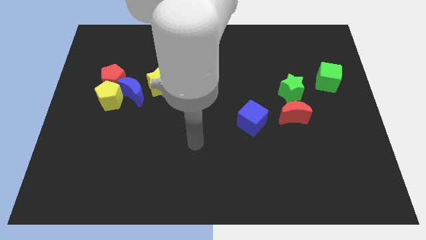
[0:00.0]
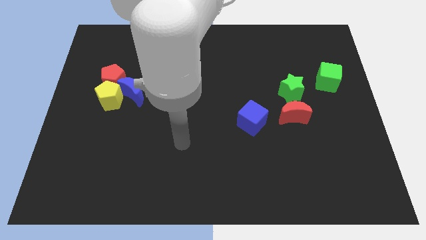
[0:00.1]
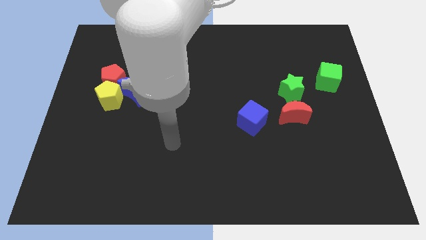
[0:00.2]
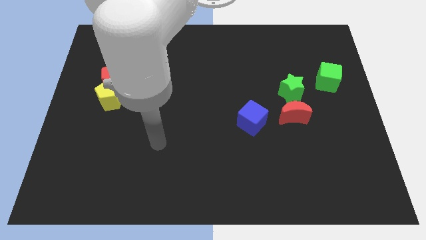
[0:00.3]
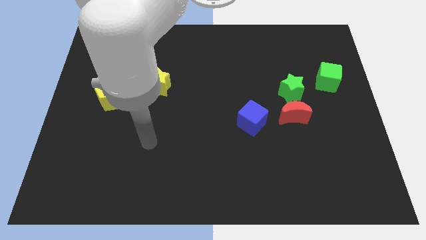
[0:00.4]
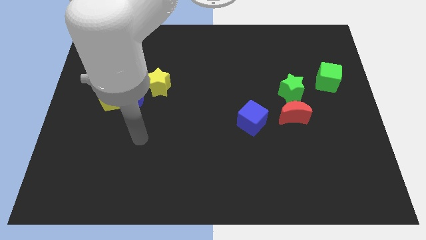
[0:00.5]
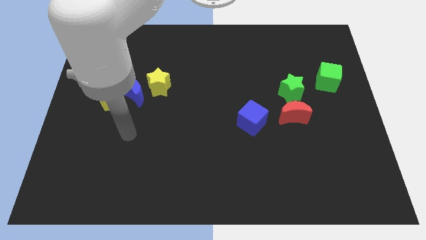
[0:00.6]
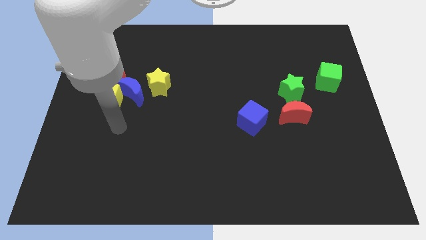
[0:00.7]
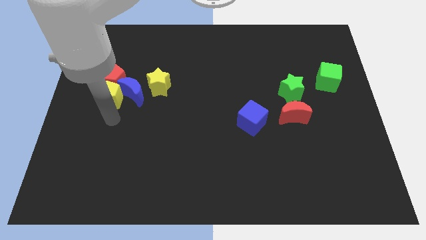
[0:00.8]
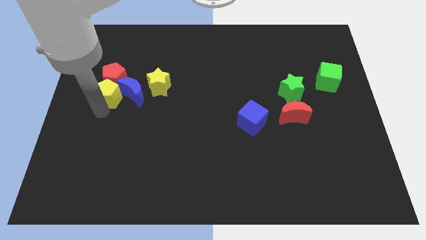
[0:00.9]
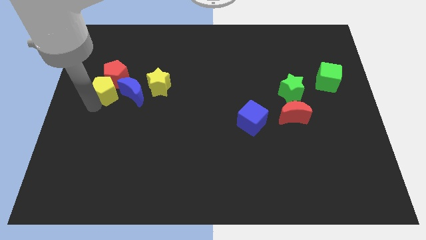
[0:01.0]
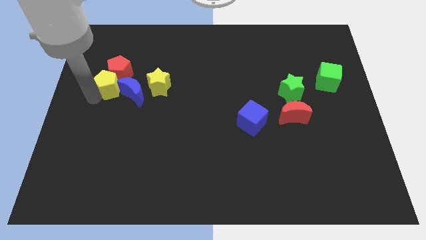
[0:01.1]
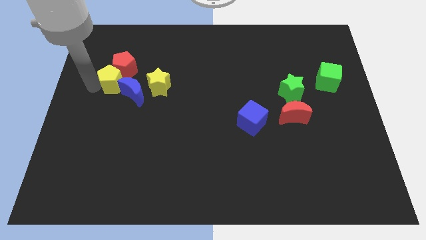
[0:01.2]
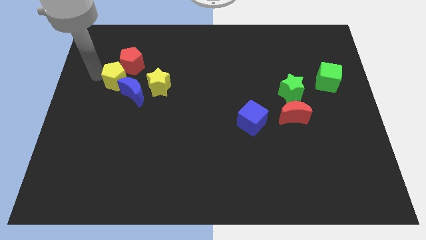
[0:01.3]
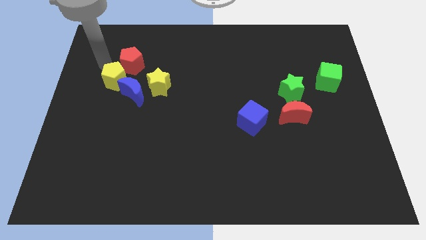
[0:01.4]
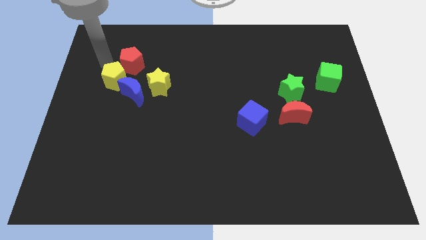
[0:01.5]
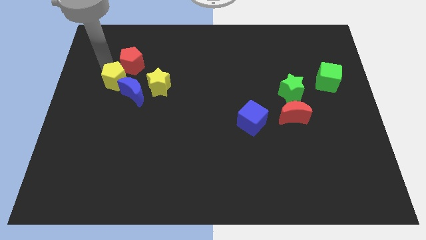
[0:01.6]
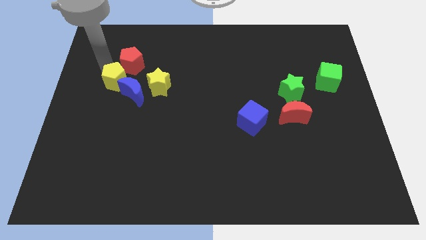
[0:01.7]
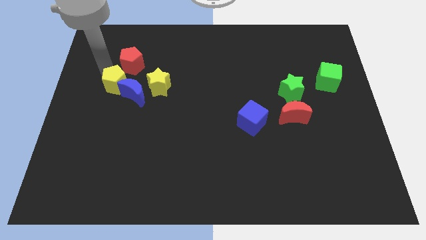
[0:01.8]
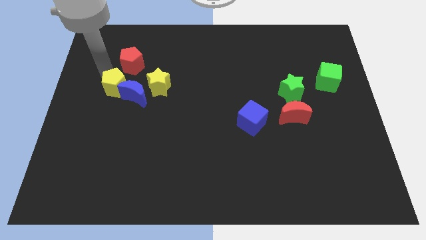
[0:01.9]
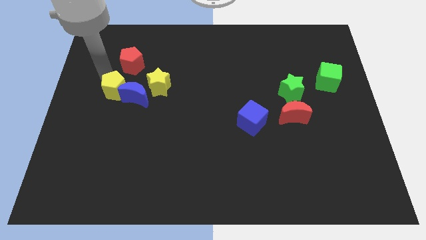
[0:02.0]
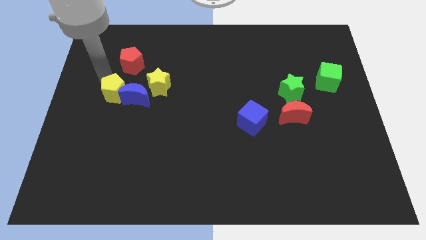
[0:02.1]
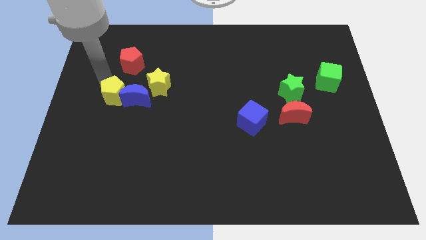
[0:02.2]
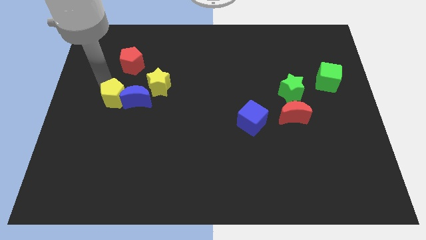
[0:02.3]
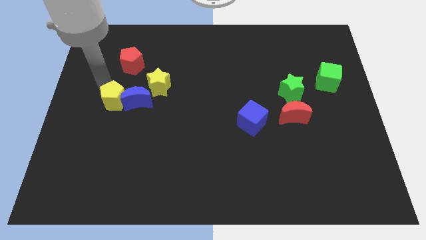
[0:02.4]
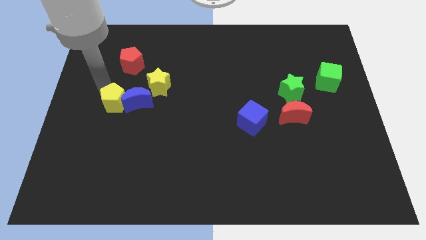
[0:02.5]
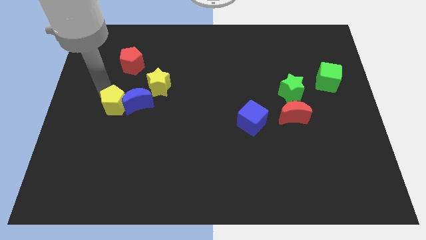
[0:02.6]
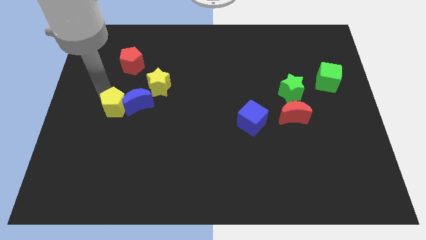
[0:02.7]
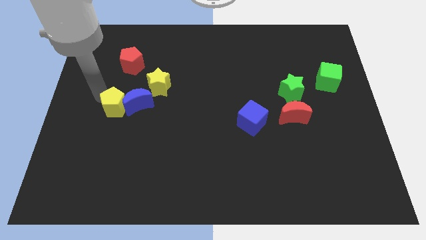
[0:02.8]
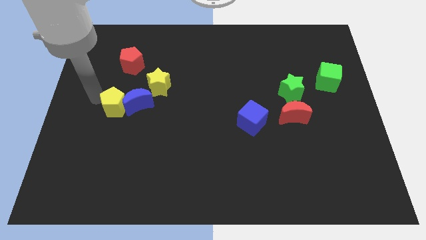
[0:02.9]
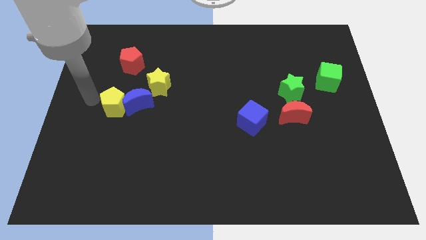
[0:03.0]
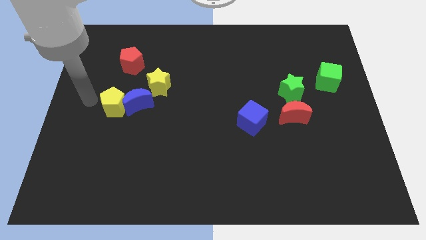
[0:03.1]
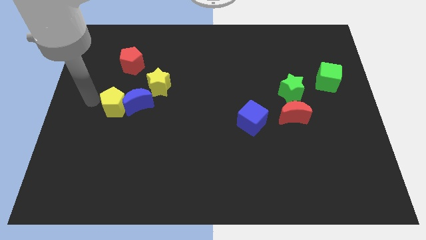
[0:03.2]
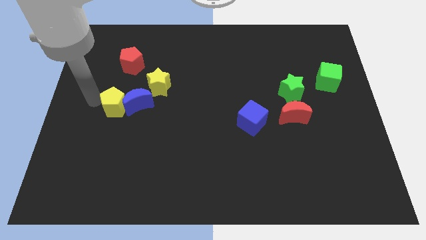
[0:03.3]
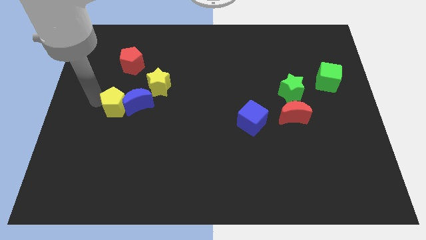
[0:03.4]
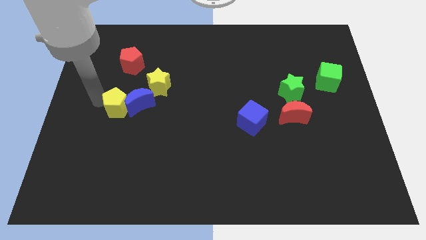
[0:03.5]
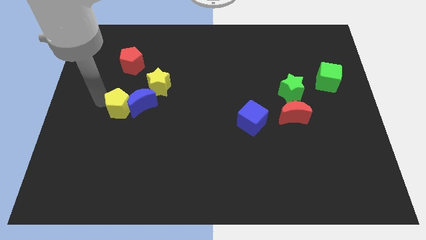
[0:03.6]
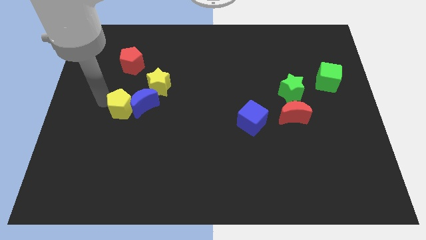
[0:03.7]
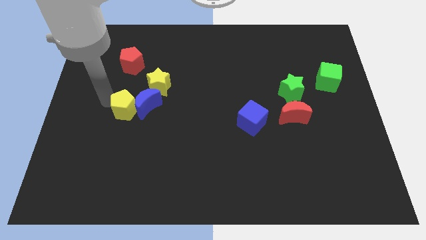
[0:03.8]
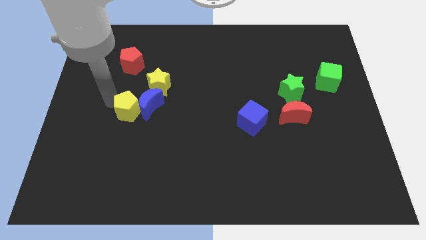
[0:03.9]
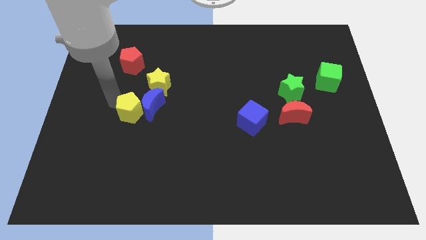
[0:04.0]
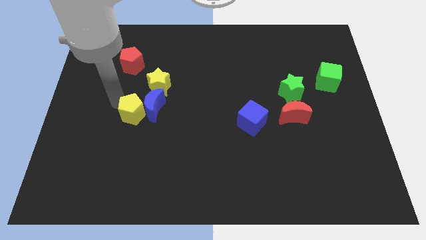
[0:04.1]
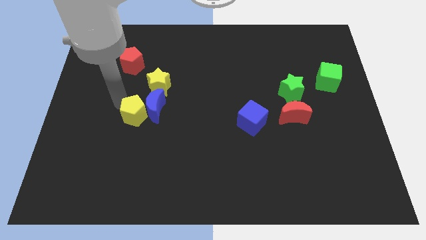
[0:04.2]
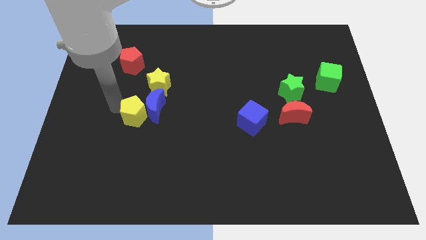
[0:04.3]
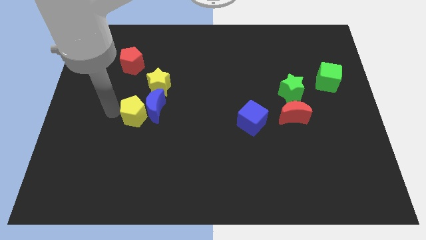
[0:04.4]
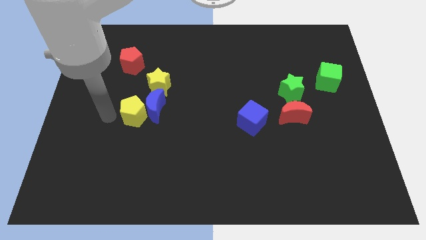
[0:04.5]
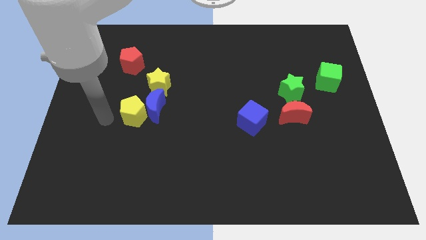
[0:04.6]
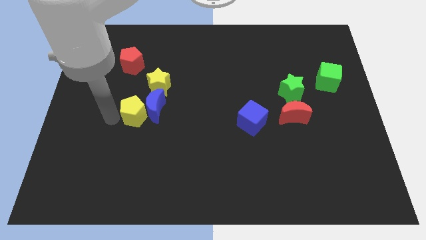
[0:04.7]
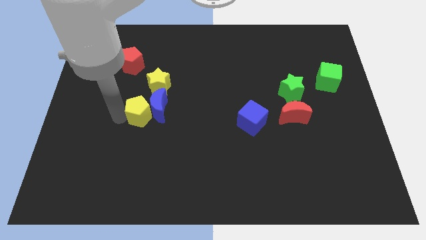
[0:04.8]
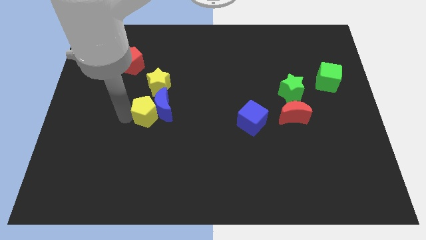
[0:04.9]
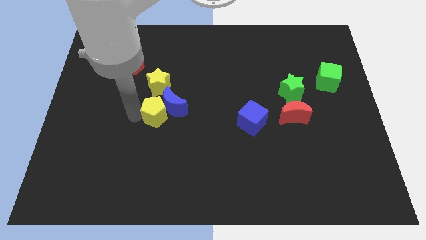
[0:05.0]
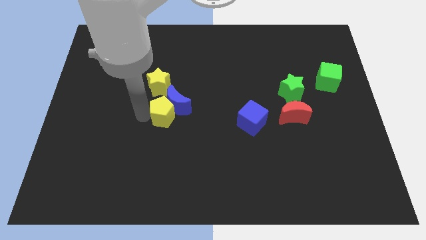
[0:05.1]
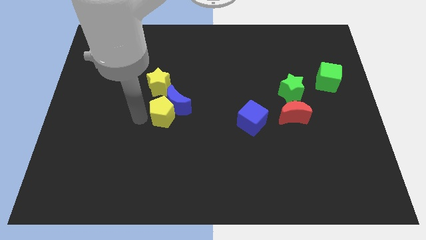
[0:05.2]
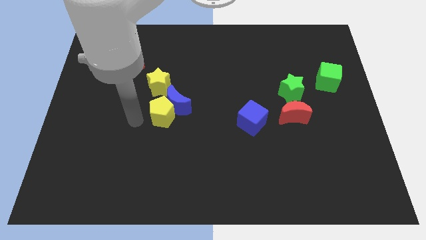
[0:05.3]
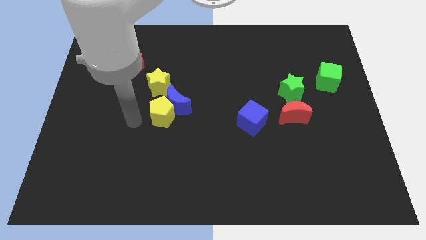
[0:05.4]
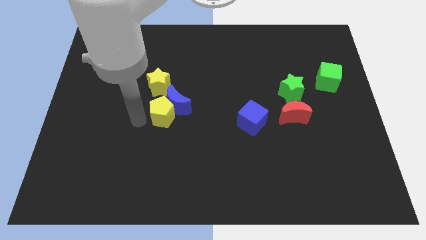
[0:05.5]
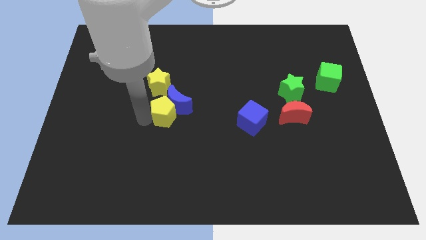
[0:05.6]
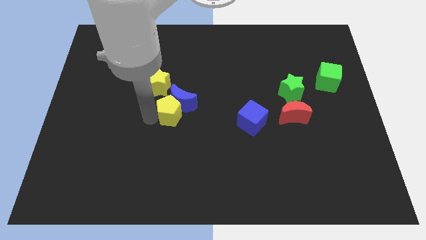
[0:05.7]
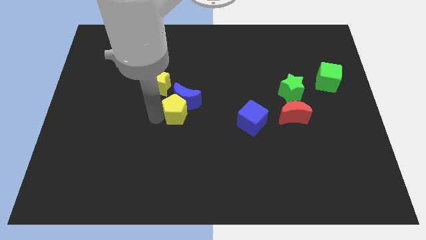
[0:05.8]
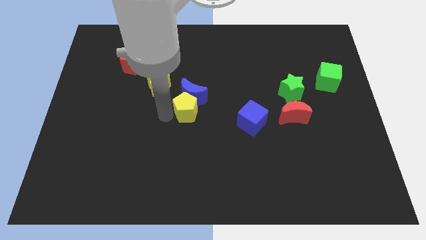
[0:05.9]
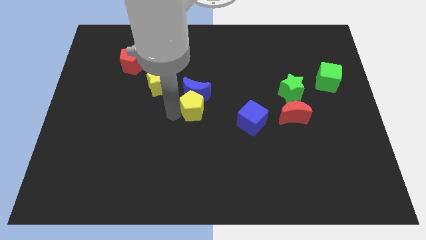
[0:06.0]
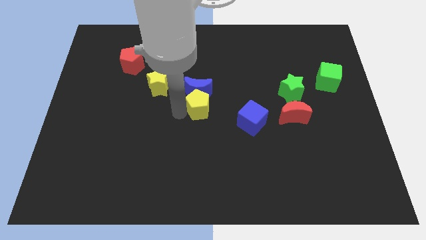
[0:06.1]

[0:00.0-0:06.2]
move the yellow pentagon right

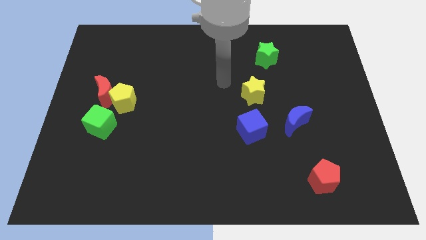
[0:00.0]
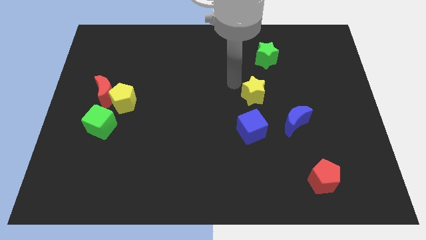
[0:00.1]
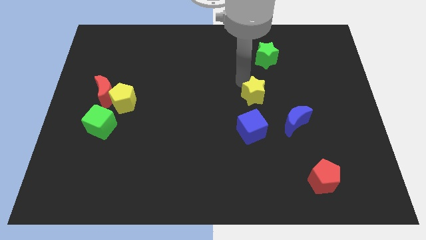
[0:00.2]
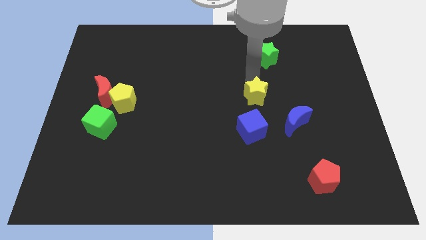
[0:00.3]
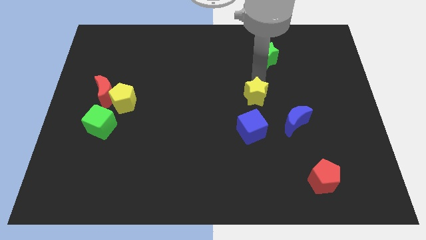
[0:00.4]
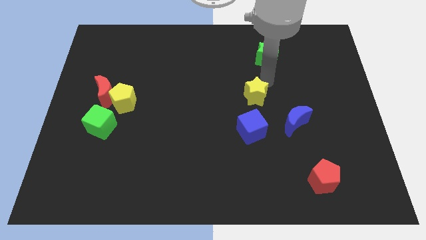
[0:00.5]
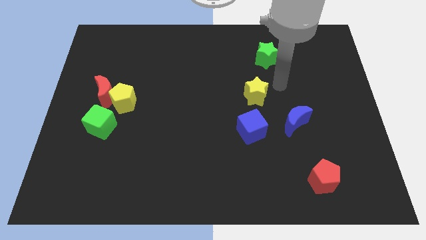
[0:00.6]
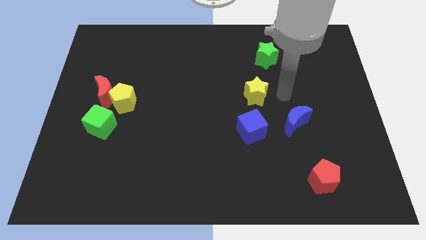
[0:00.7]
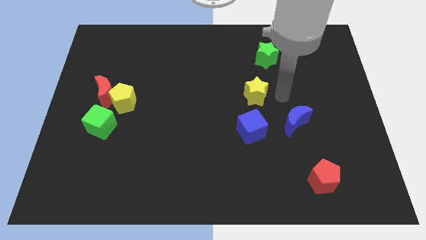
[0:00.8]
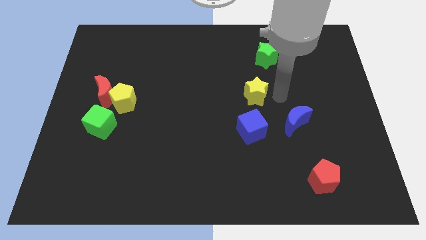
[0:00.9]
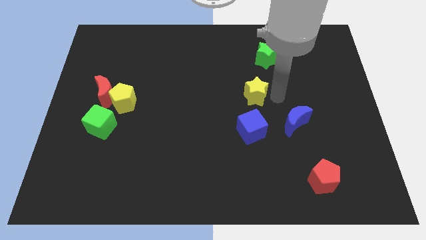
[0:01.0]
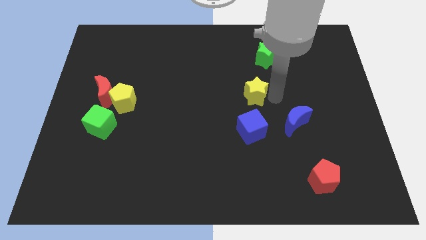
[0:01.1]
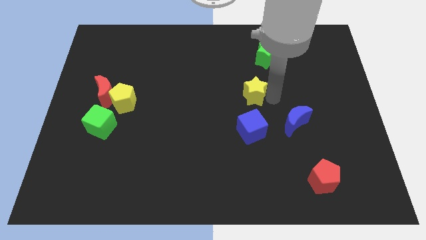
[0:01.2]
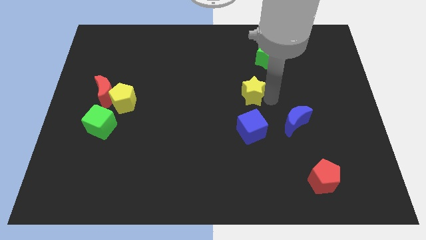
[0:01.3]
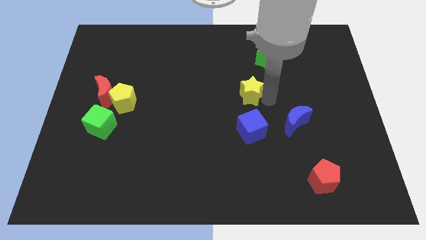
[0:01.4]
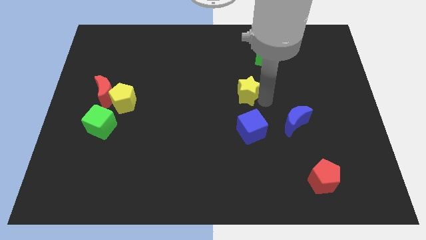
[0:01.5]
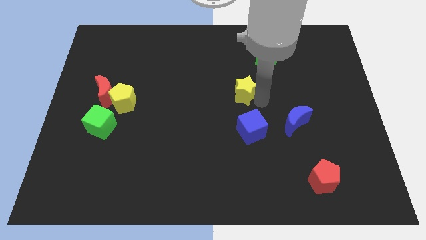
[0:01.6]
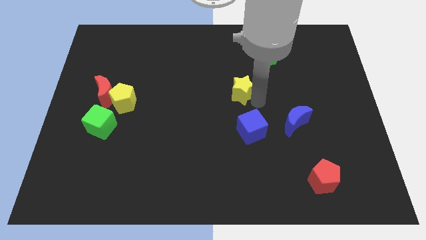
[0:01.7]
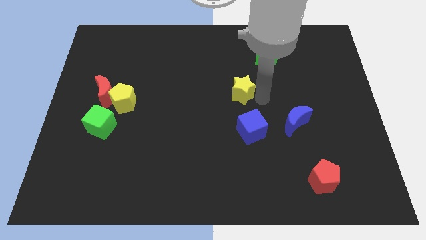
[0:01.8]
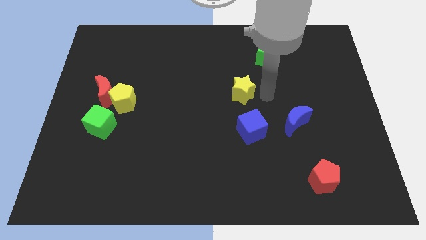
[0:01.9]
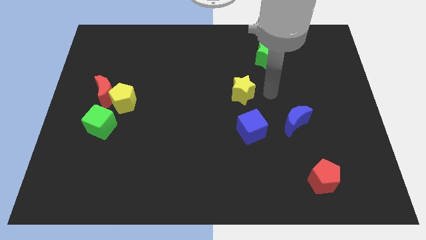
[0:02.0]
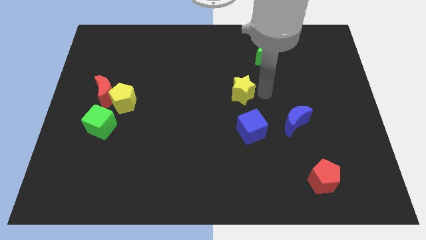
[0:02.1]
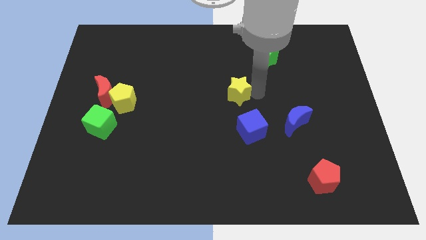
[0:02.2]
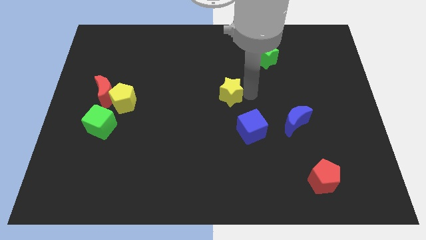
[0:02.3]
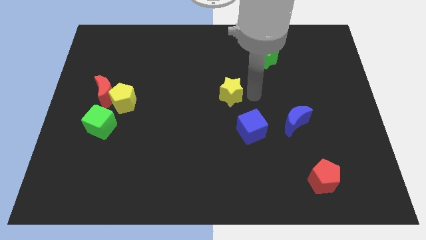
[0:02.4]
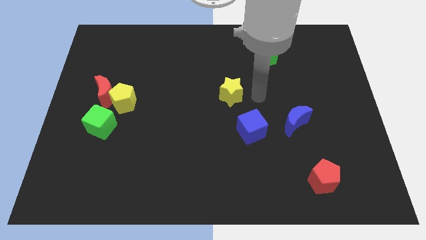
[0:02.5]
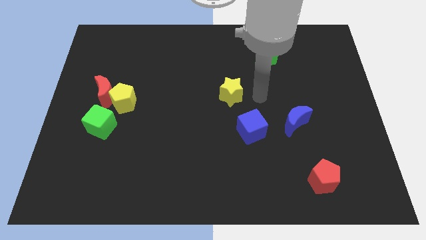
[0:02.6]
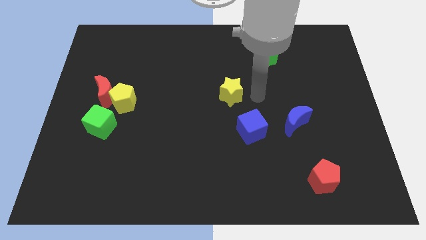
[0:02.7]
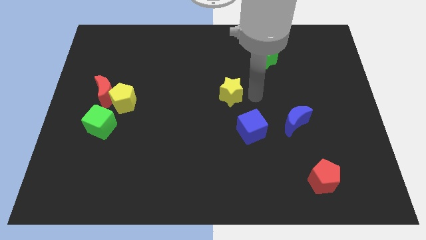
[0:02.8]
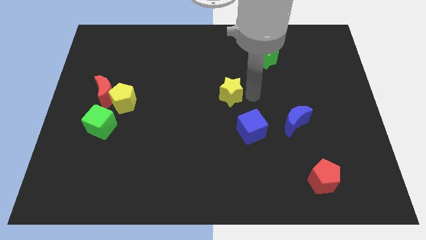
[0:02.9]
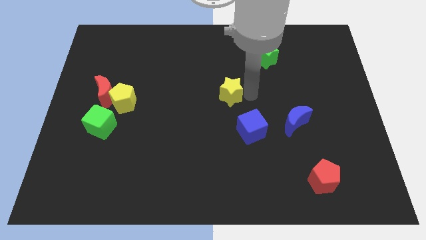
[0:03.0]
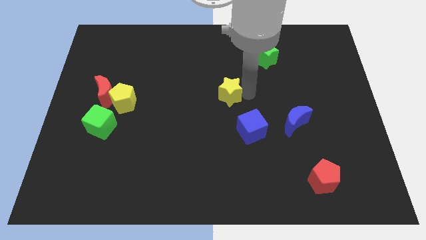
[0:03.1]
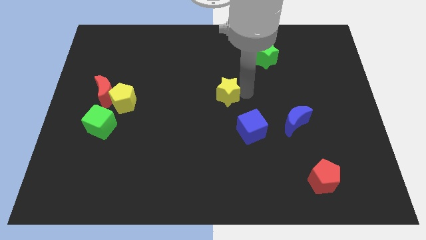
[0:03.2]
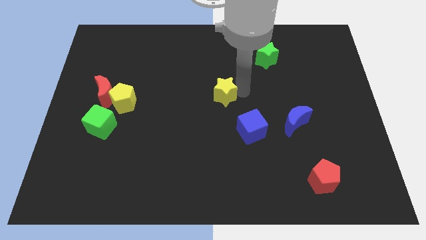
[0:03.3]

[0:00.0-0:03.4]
slide the yellow star a little bit to the left
